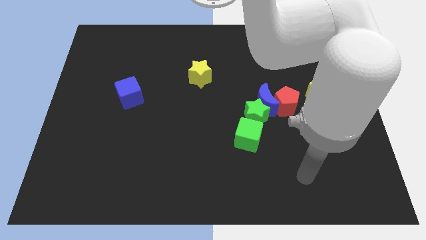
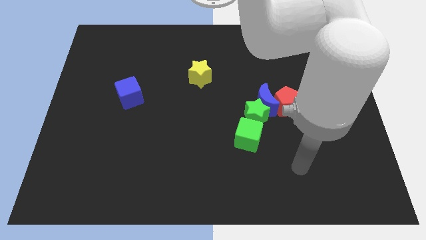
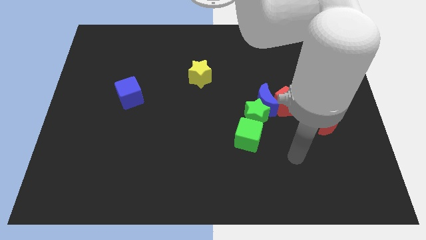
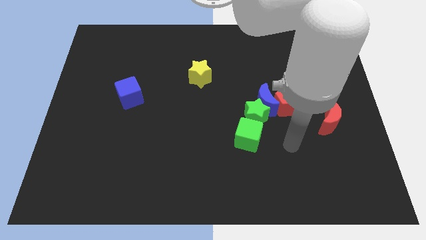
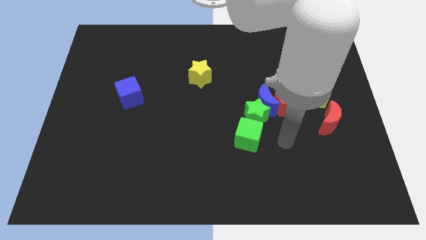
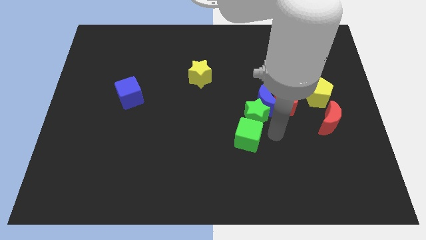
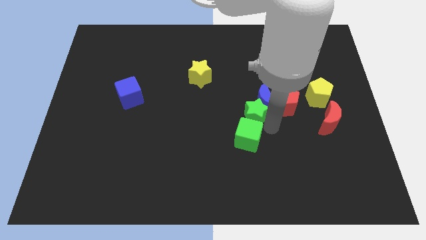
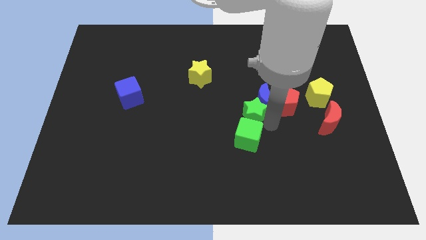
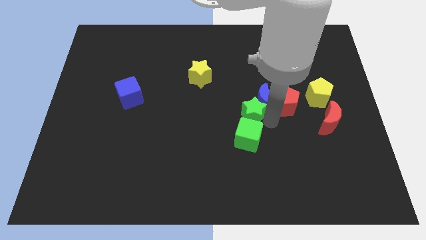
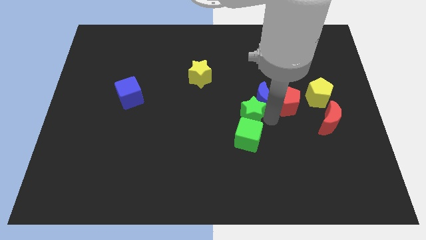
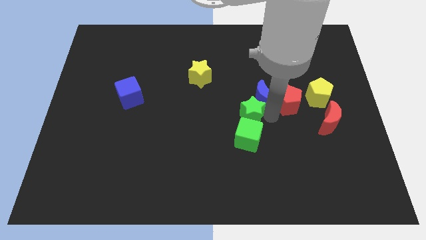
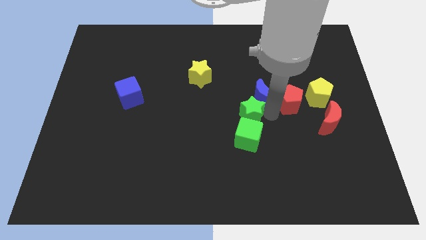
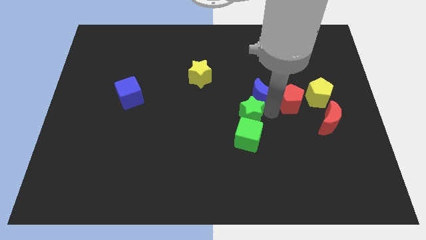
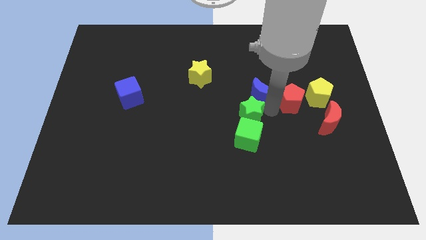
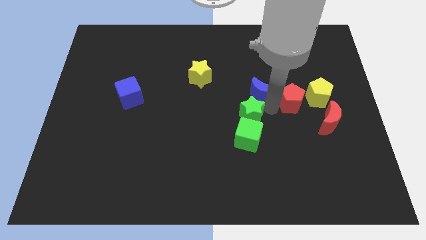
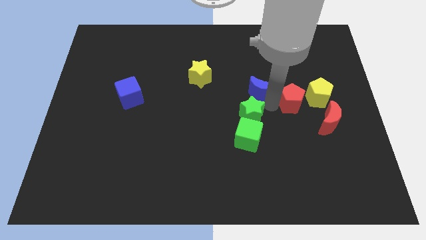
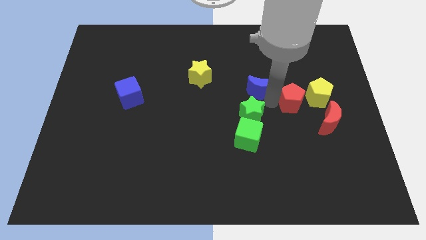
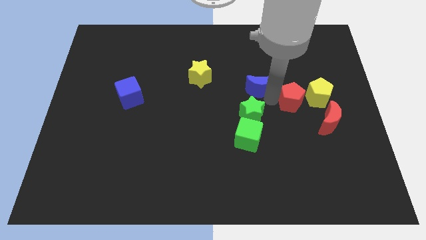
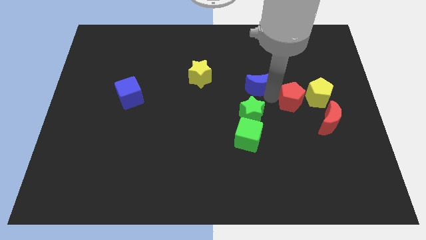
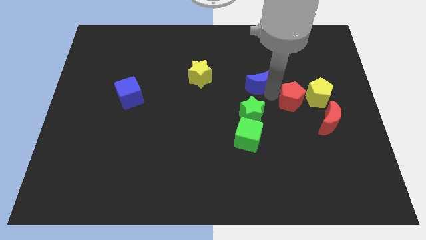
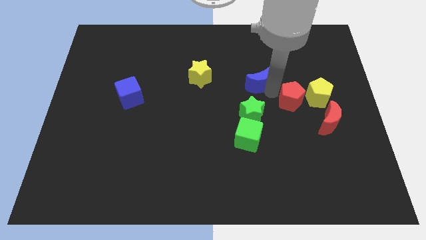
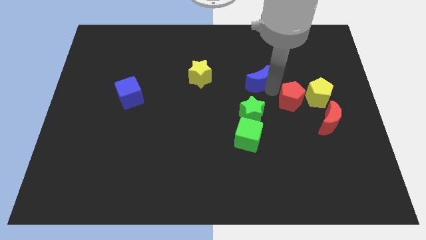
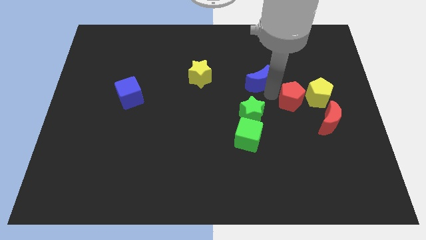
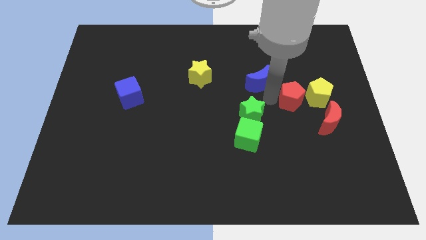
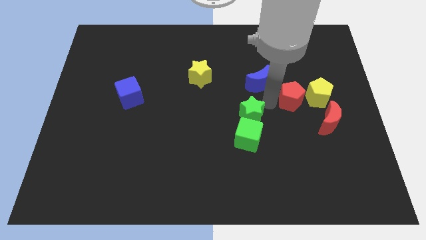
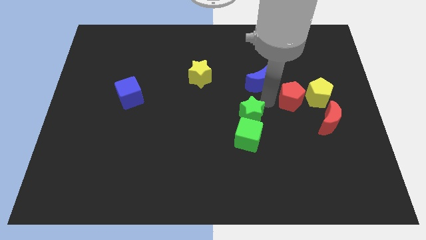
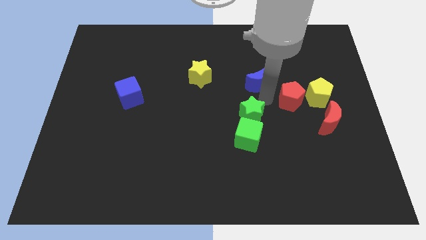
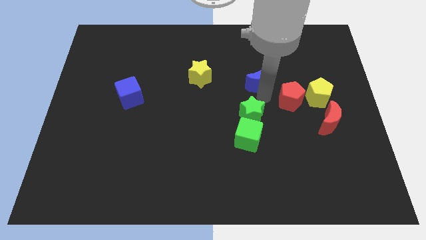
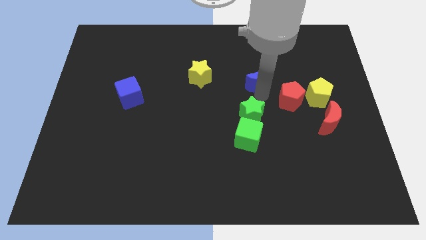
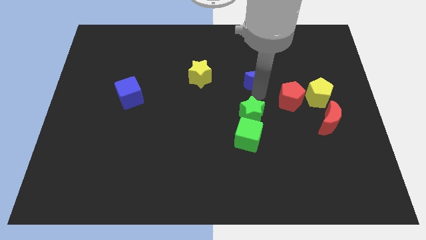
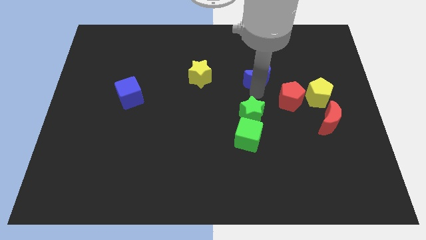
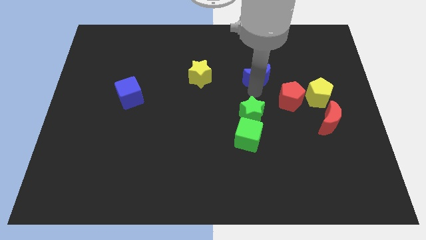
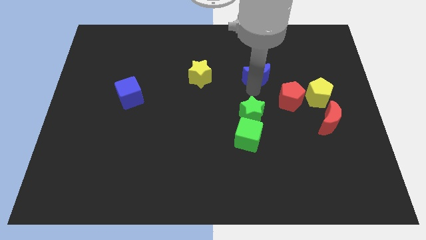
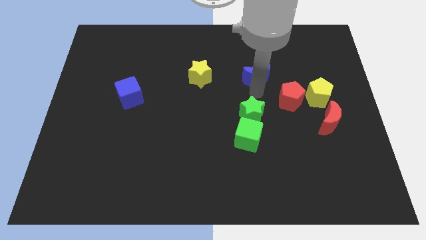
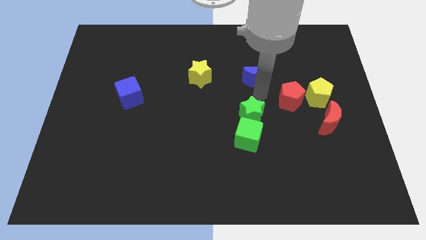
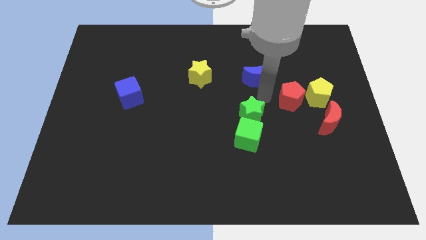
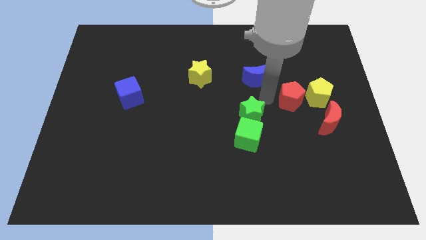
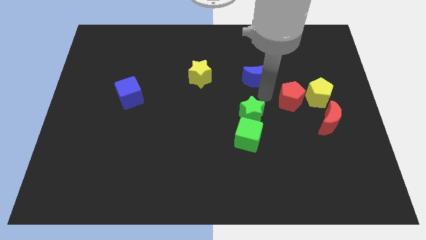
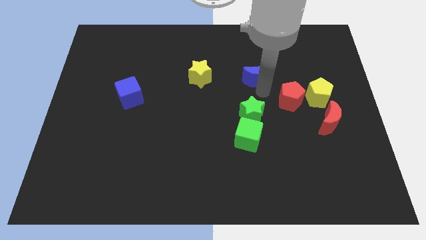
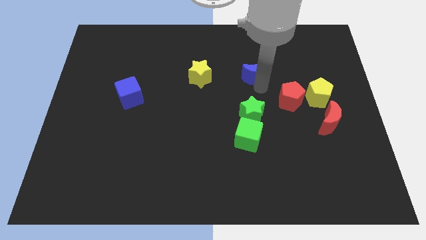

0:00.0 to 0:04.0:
move the blue moon away from the red pentagon and green star

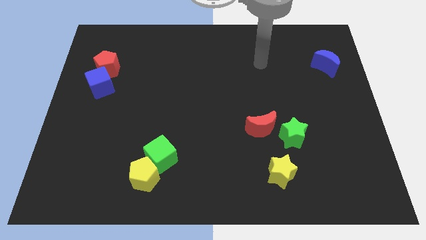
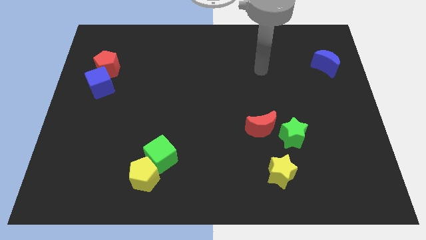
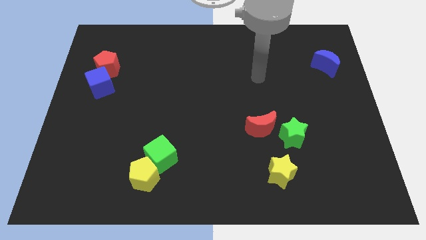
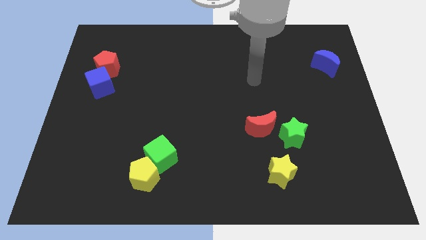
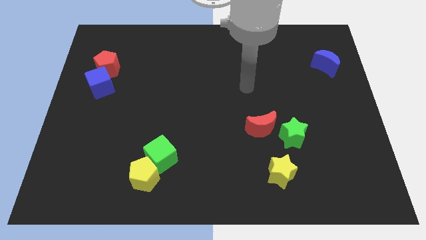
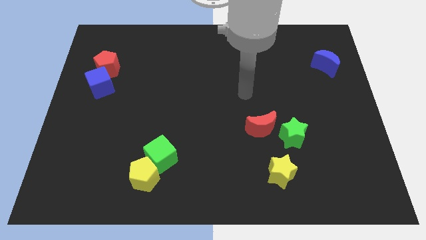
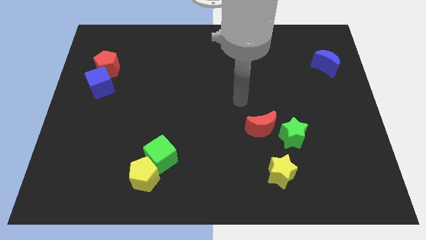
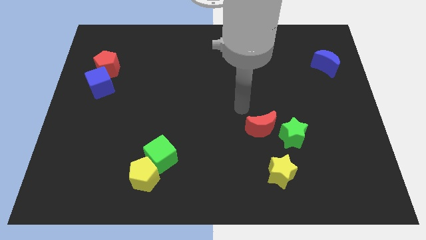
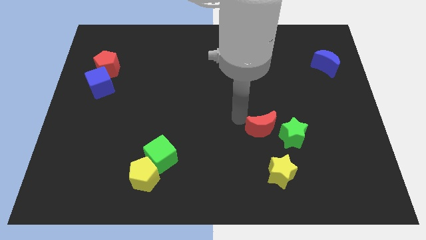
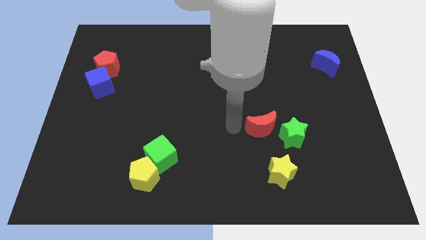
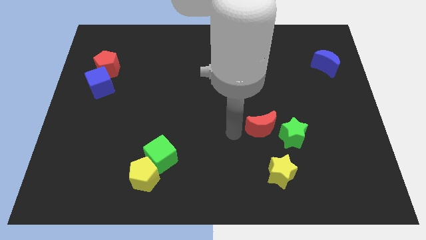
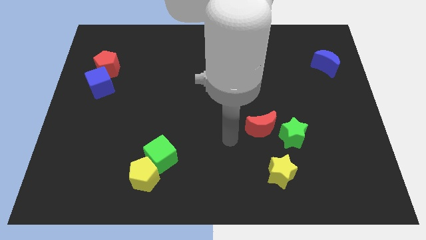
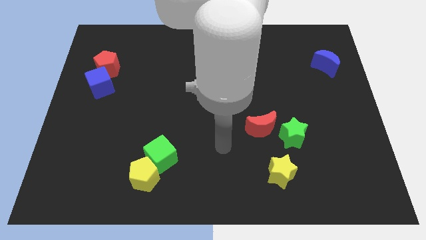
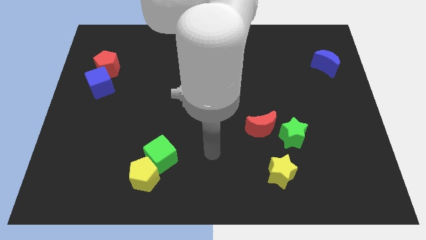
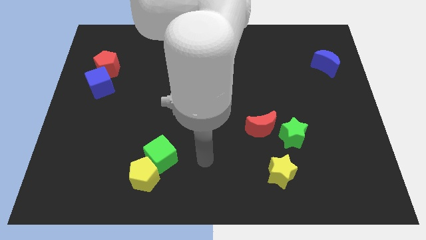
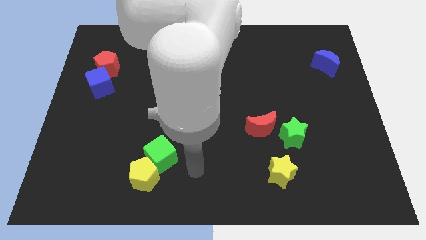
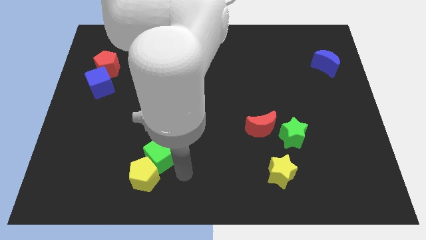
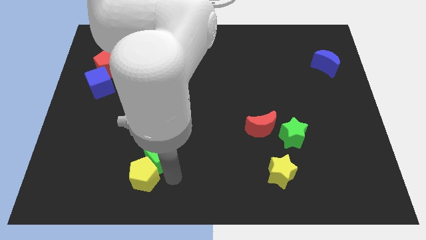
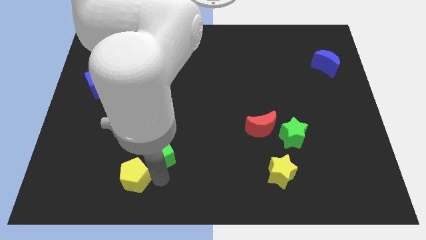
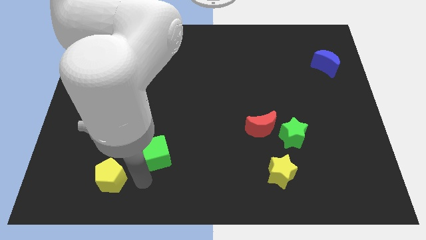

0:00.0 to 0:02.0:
pull the green cube apart from the yellow pentagon

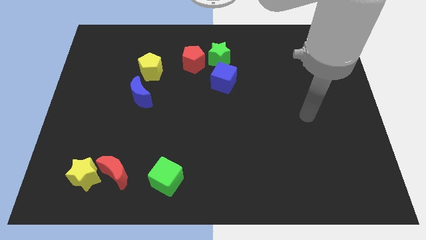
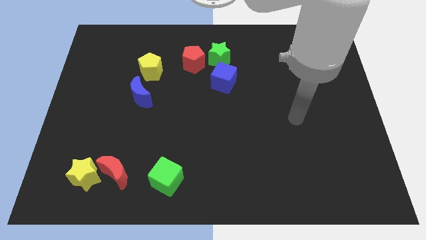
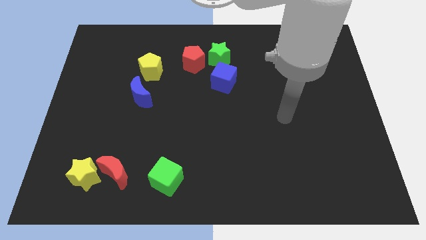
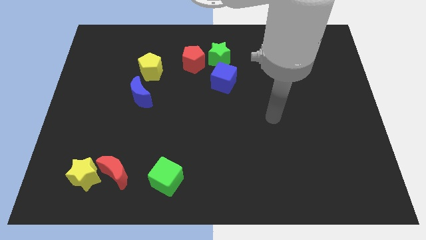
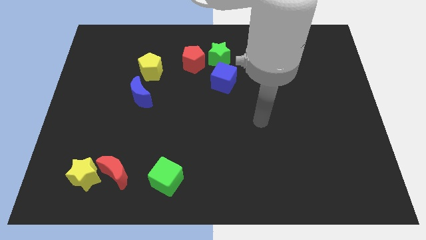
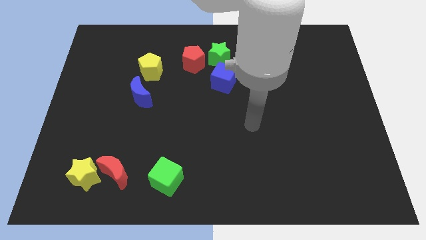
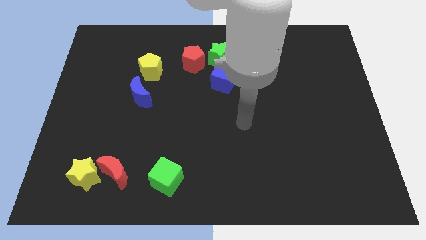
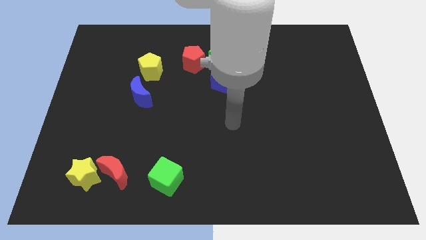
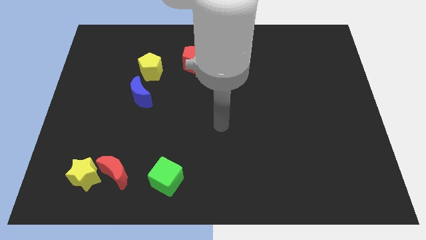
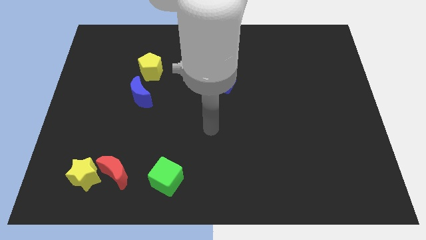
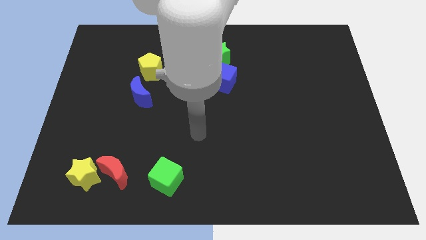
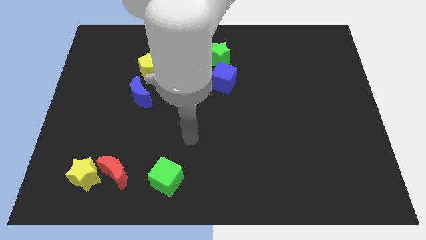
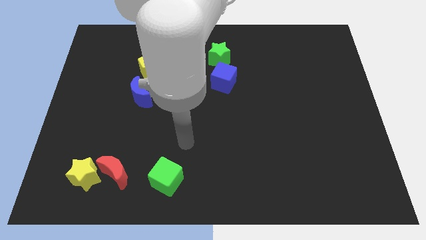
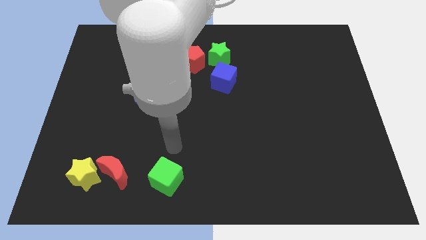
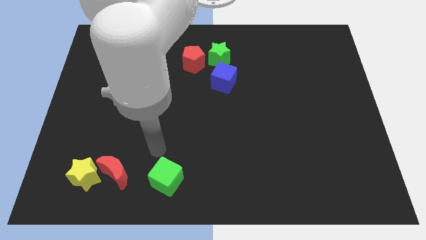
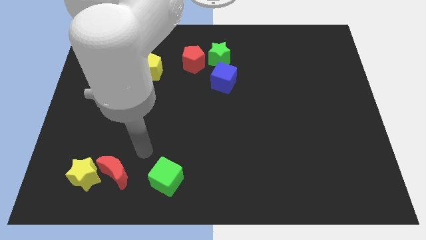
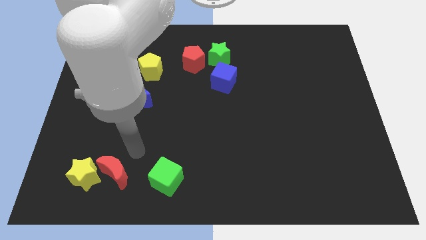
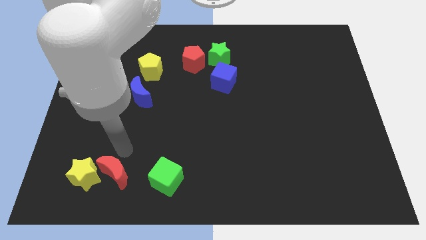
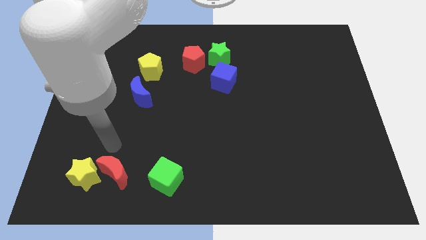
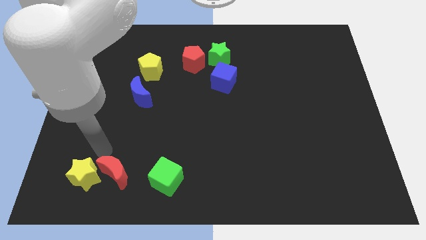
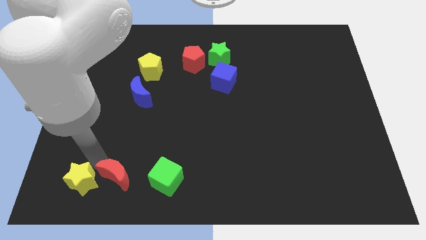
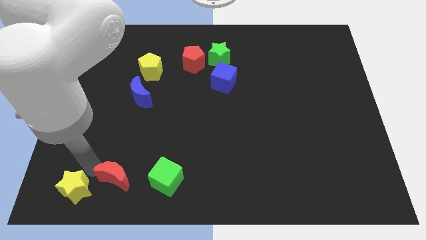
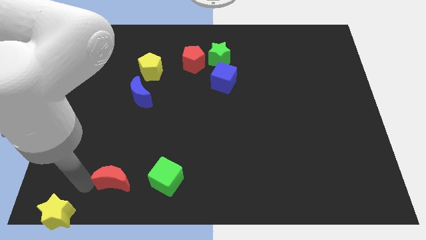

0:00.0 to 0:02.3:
move the red moon away from the yellow star

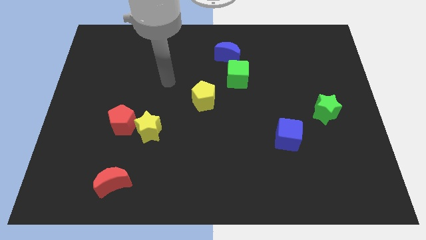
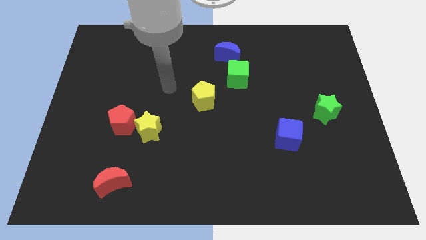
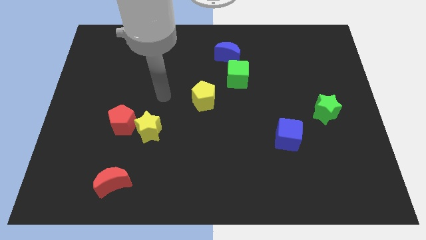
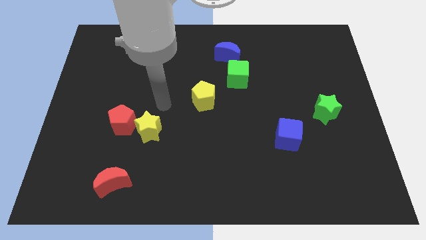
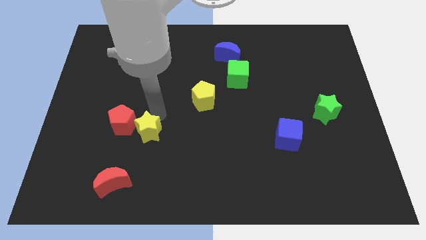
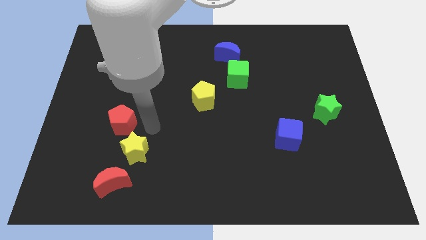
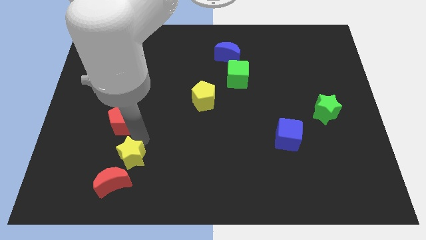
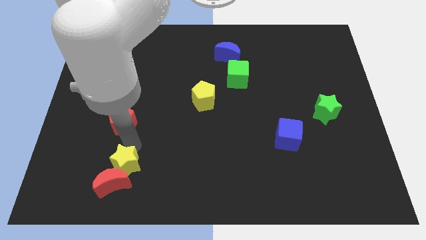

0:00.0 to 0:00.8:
move the red pentagon away from the yellow star
